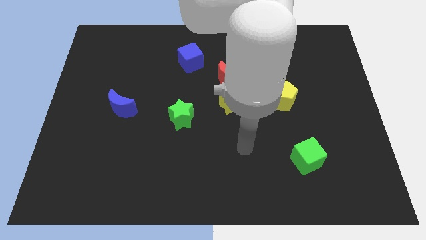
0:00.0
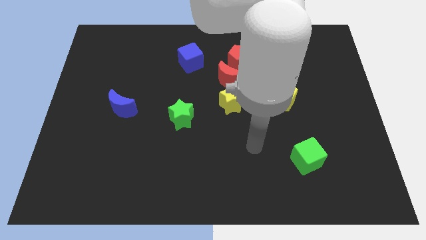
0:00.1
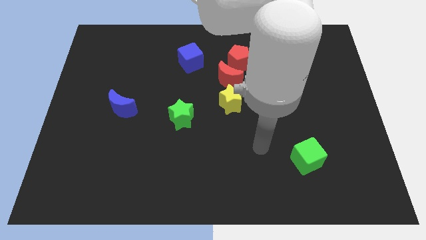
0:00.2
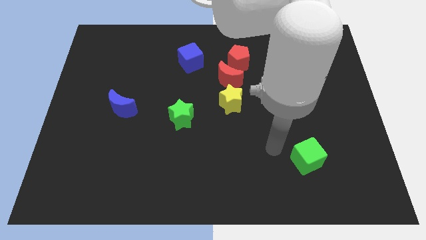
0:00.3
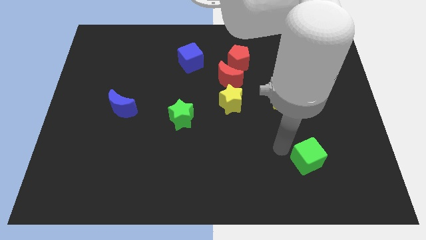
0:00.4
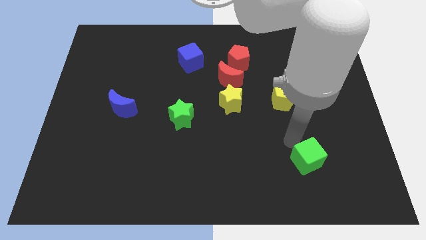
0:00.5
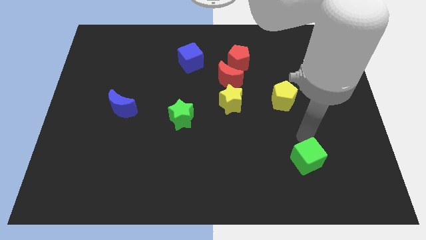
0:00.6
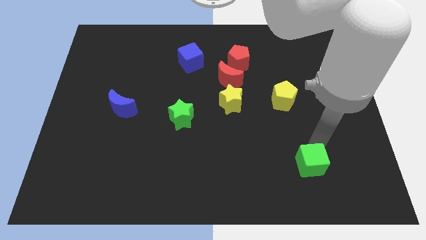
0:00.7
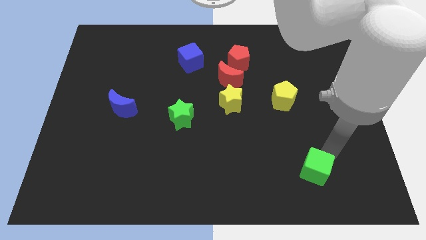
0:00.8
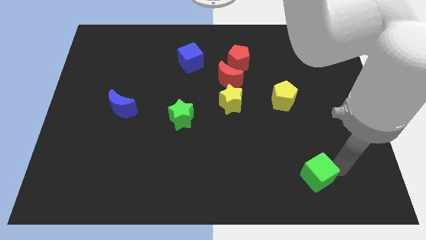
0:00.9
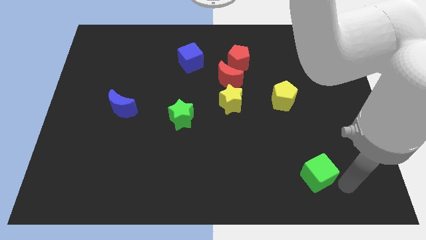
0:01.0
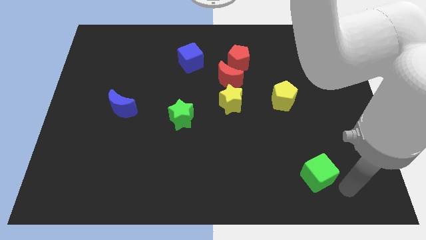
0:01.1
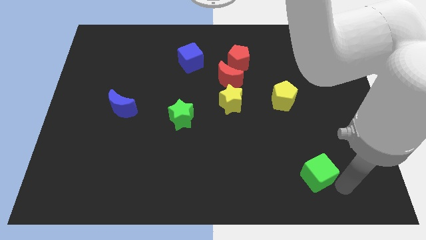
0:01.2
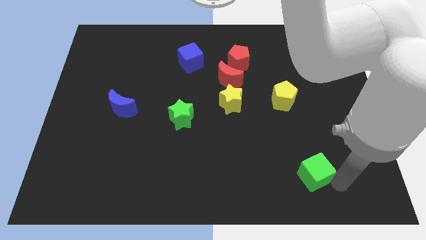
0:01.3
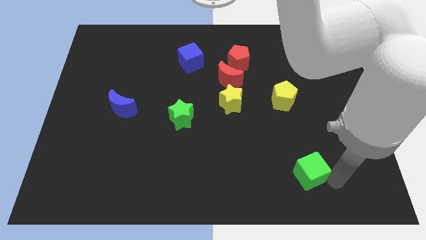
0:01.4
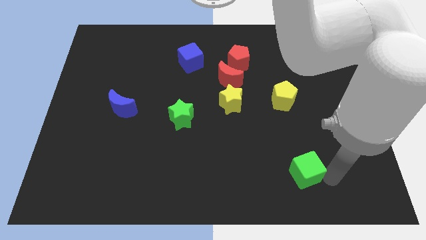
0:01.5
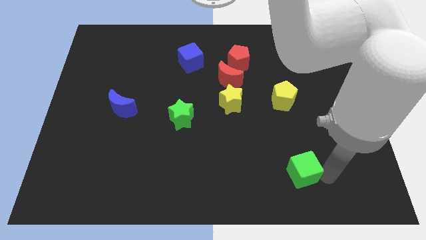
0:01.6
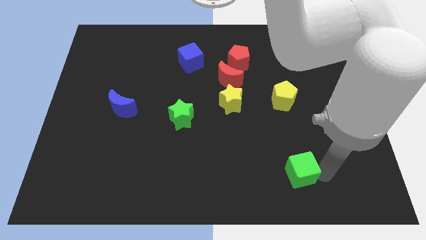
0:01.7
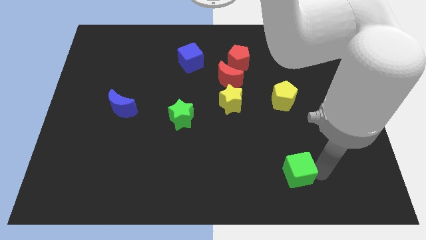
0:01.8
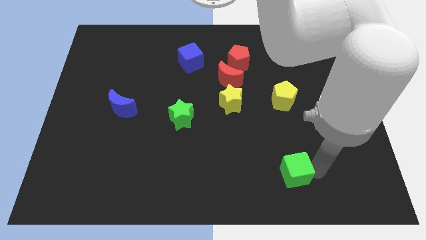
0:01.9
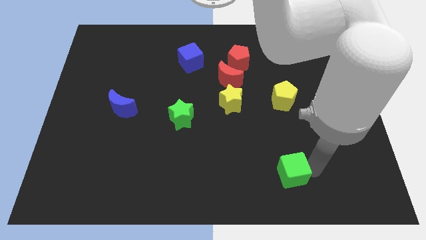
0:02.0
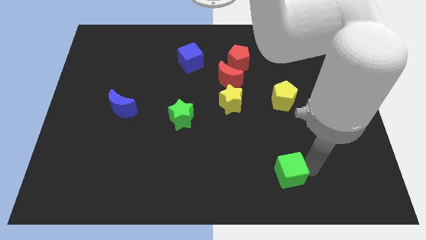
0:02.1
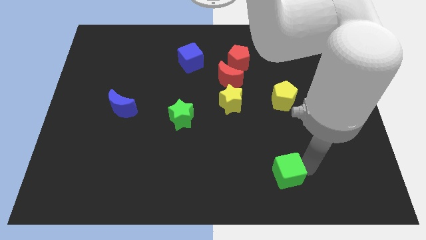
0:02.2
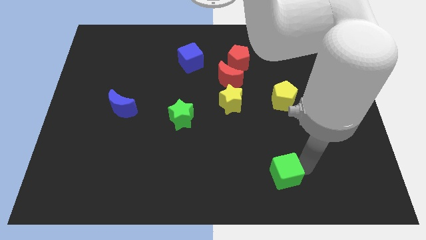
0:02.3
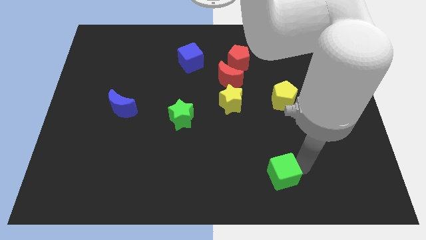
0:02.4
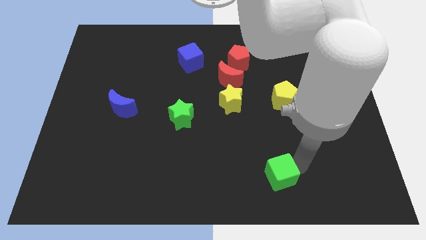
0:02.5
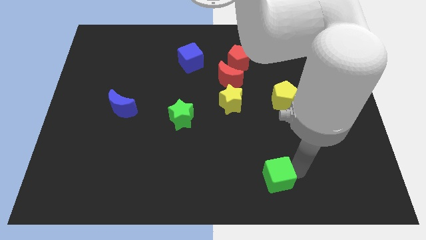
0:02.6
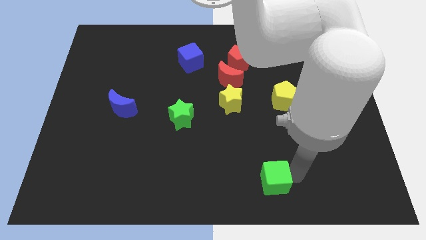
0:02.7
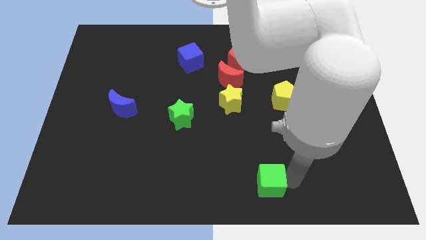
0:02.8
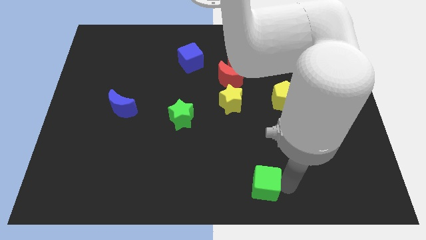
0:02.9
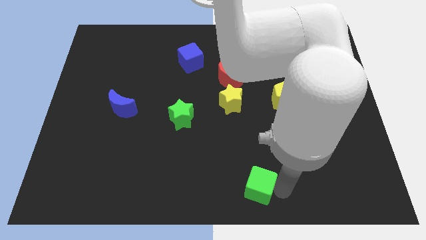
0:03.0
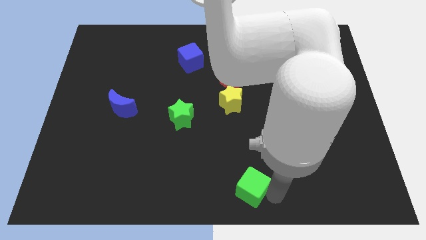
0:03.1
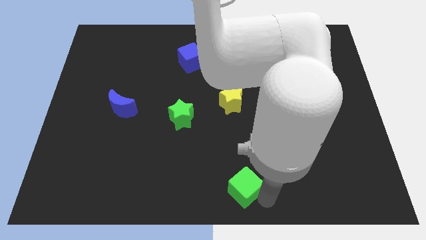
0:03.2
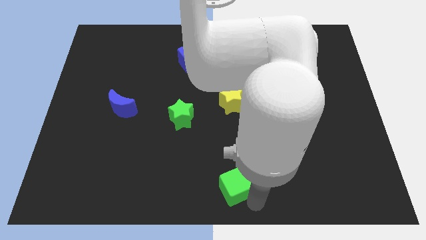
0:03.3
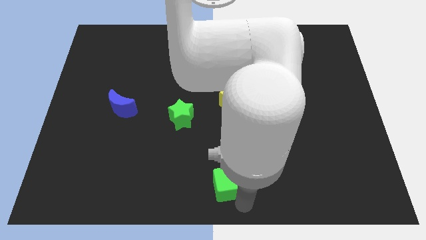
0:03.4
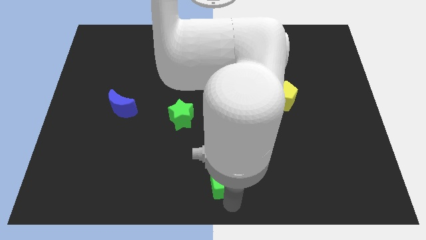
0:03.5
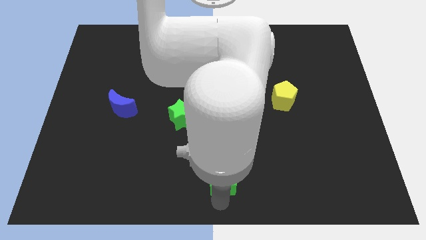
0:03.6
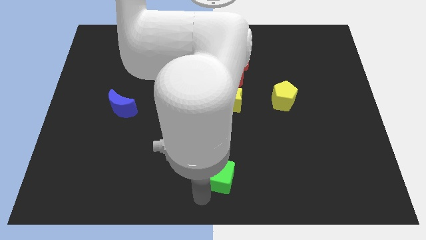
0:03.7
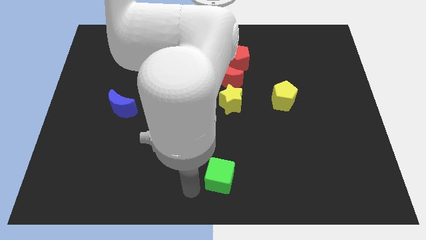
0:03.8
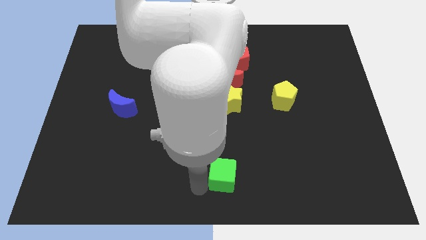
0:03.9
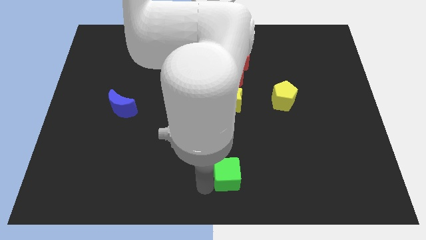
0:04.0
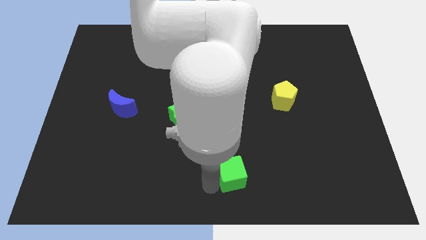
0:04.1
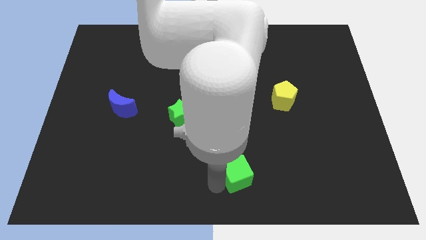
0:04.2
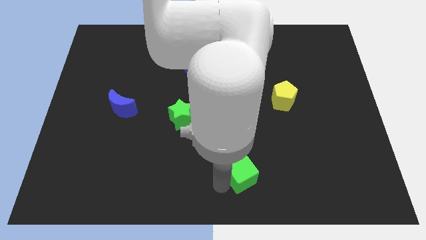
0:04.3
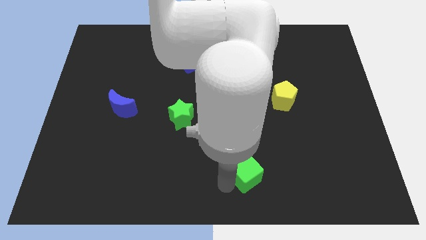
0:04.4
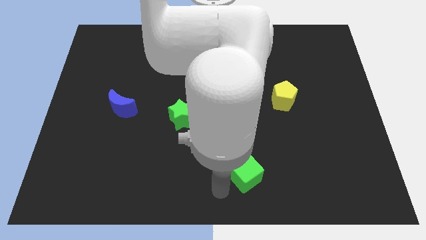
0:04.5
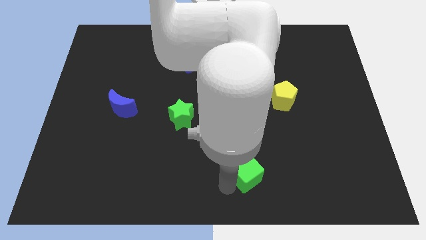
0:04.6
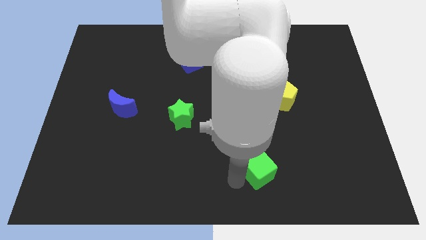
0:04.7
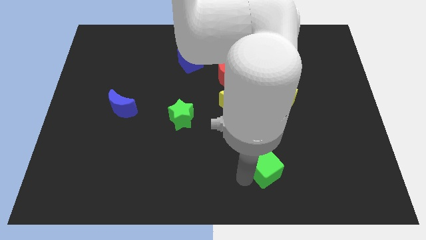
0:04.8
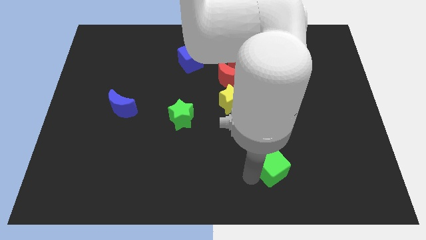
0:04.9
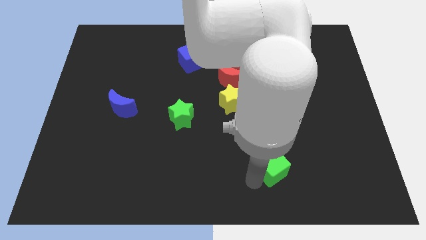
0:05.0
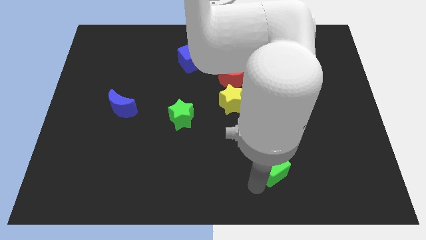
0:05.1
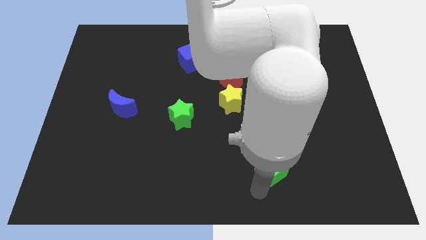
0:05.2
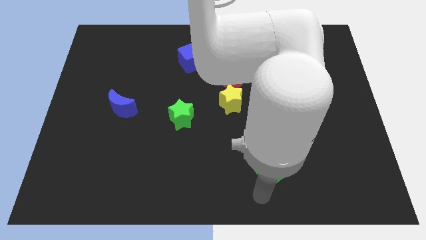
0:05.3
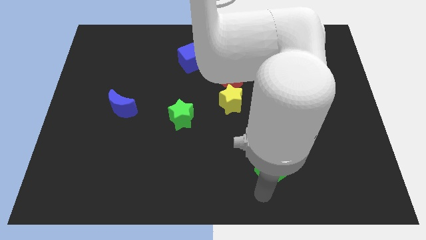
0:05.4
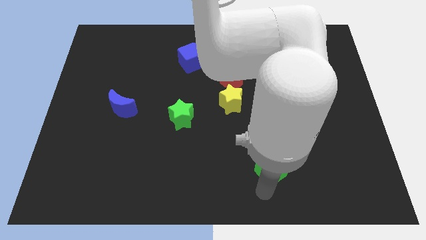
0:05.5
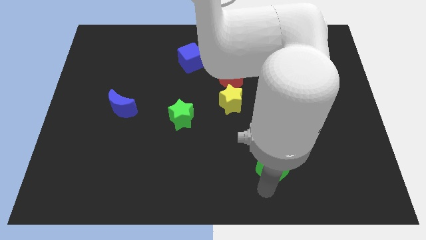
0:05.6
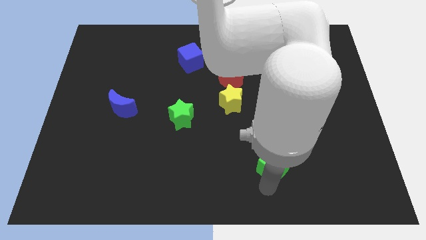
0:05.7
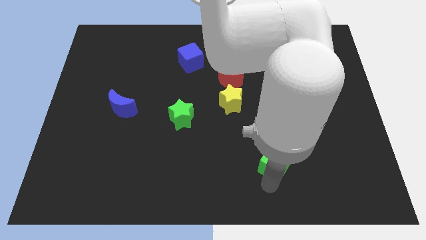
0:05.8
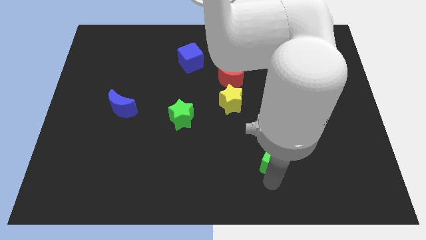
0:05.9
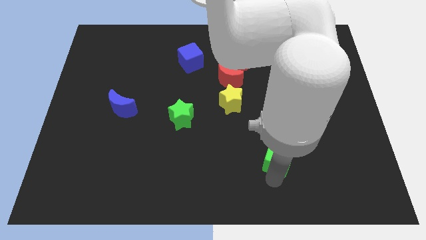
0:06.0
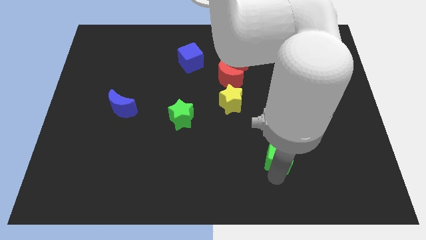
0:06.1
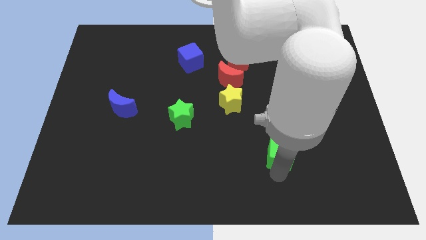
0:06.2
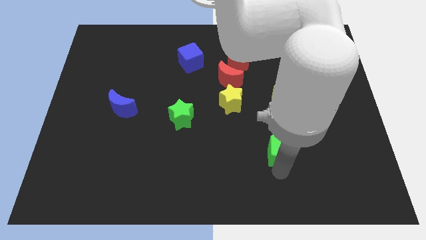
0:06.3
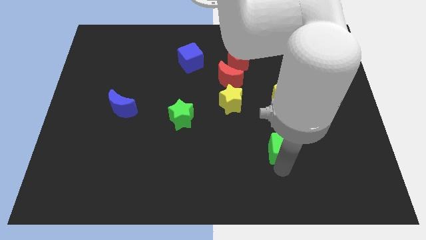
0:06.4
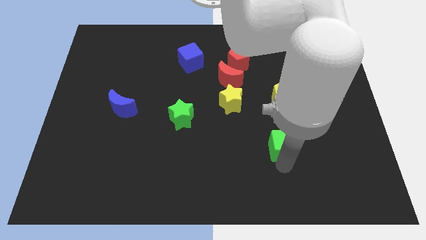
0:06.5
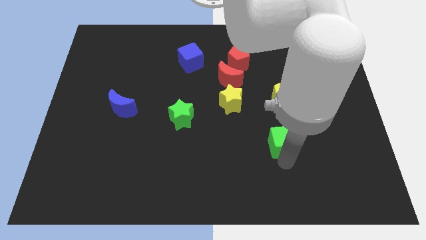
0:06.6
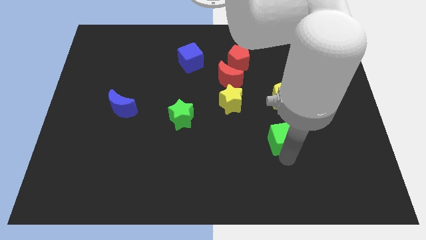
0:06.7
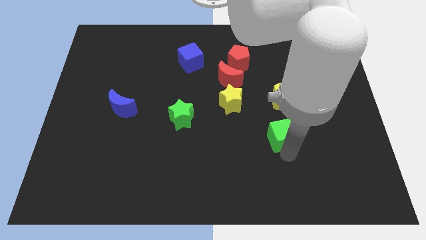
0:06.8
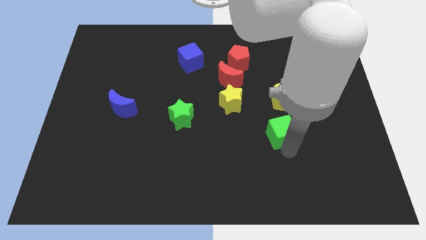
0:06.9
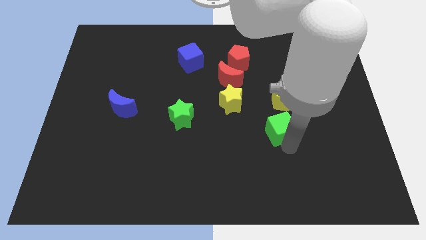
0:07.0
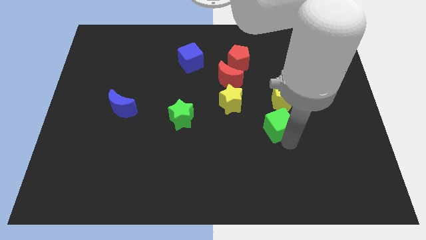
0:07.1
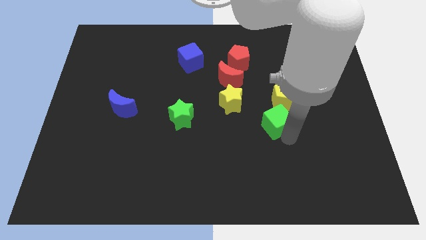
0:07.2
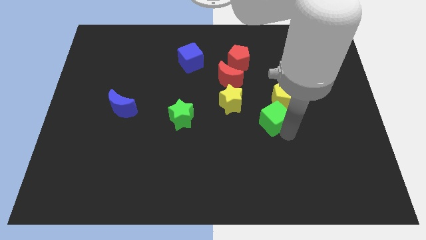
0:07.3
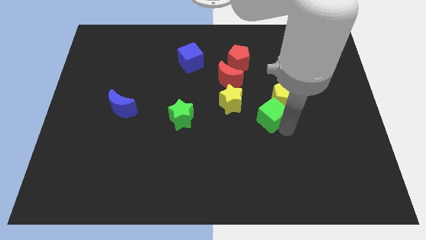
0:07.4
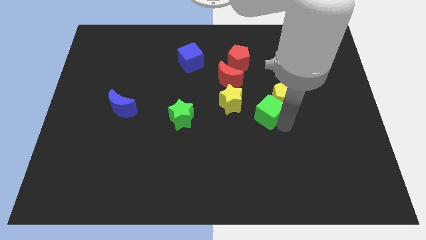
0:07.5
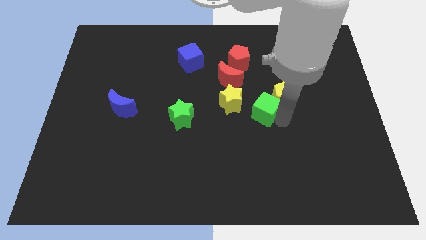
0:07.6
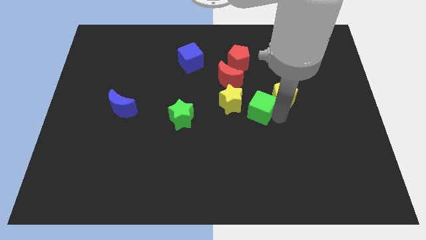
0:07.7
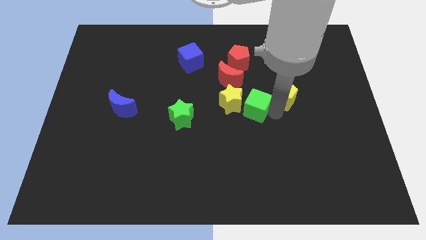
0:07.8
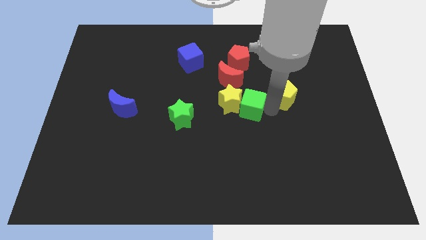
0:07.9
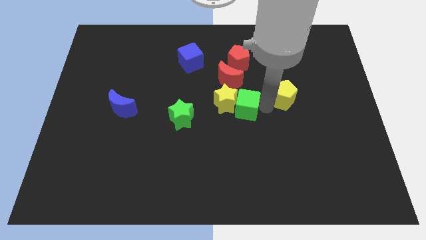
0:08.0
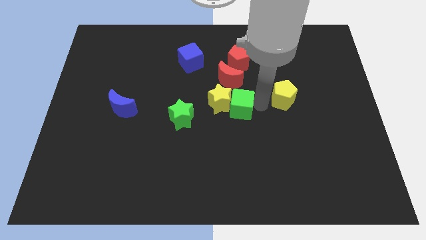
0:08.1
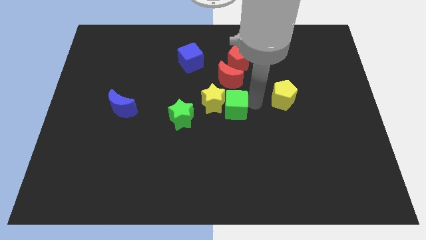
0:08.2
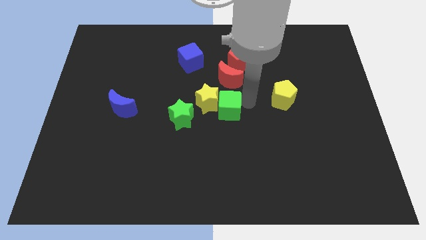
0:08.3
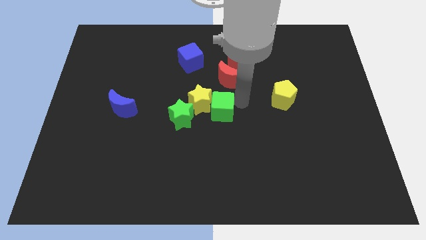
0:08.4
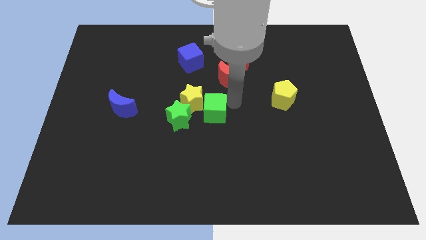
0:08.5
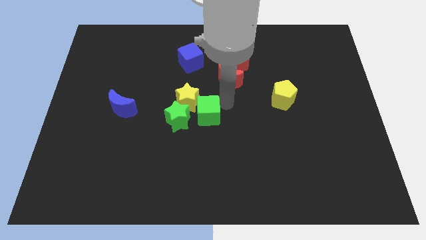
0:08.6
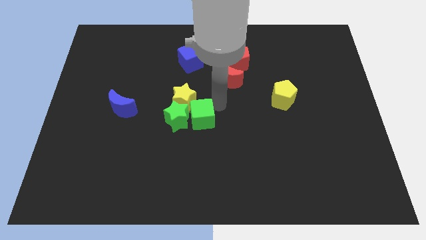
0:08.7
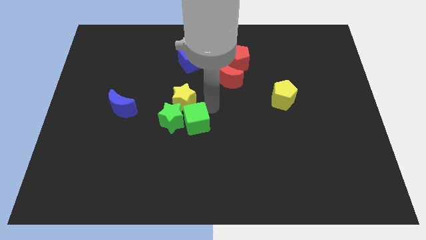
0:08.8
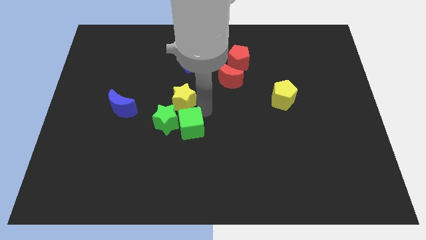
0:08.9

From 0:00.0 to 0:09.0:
push the green cube to the left
